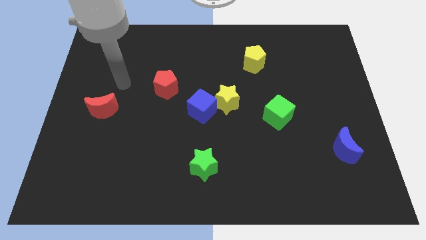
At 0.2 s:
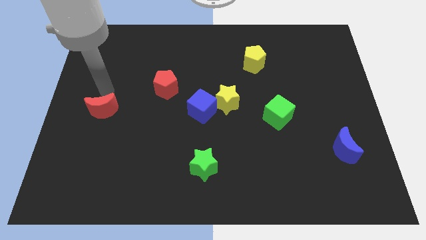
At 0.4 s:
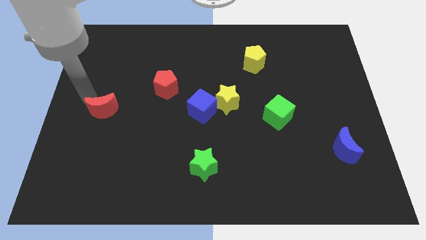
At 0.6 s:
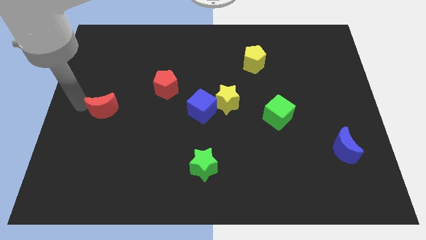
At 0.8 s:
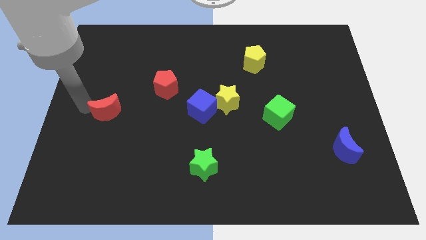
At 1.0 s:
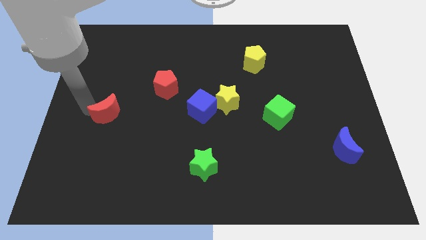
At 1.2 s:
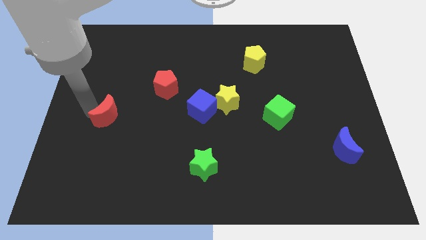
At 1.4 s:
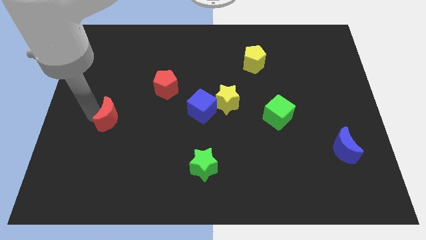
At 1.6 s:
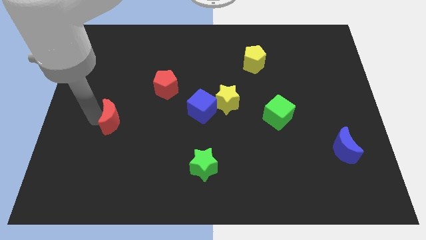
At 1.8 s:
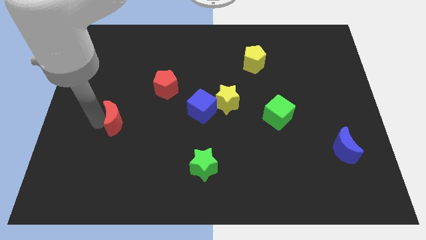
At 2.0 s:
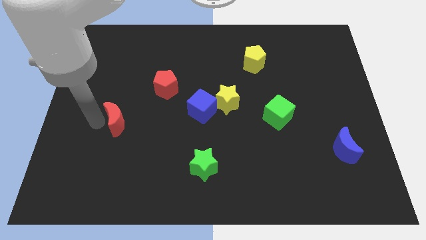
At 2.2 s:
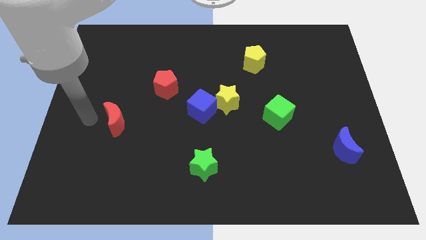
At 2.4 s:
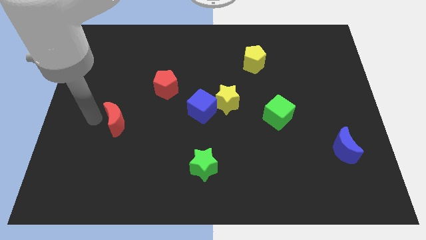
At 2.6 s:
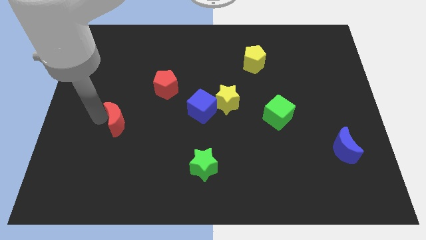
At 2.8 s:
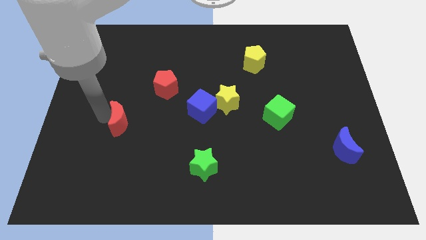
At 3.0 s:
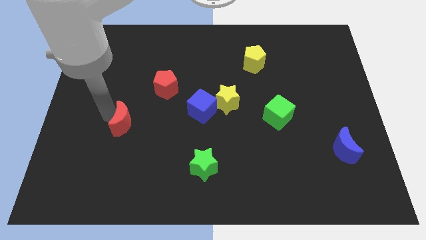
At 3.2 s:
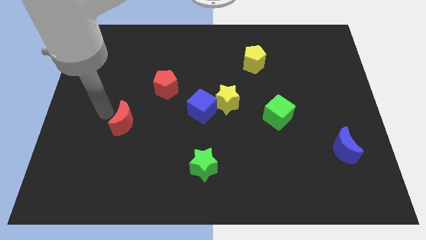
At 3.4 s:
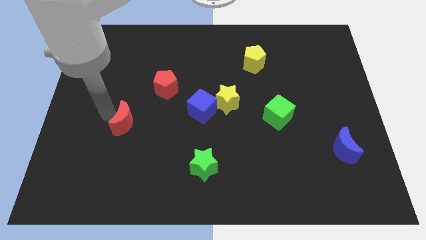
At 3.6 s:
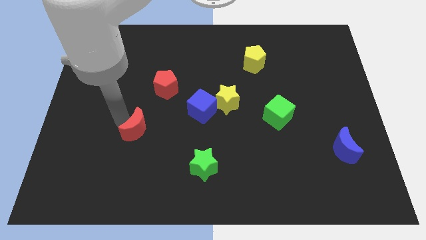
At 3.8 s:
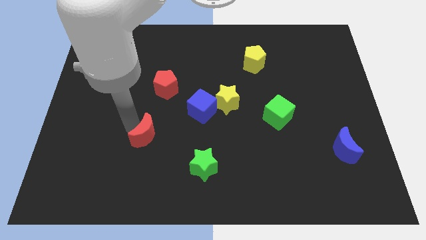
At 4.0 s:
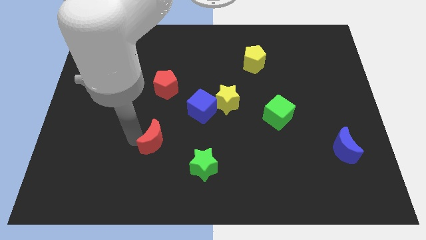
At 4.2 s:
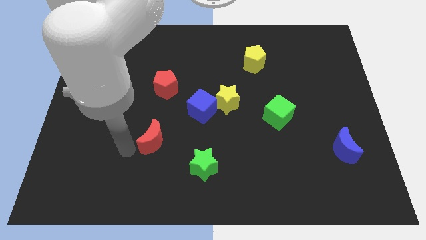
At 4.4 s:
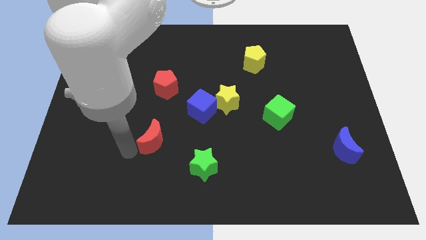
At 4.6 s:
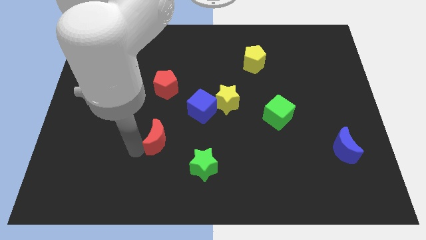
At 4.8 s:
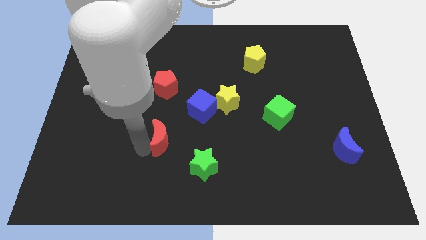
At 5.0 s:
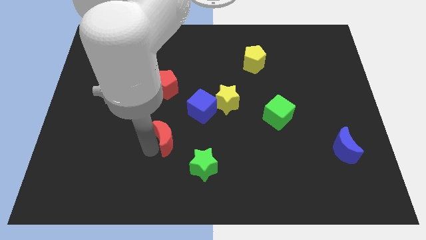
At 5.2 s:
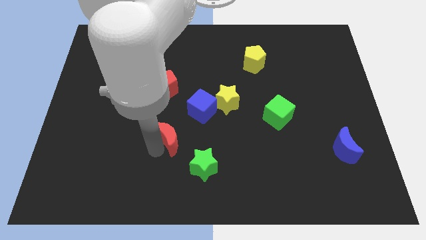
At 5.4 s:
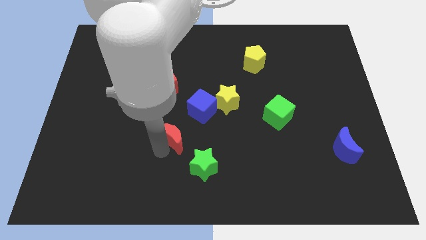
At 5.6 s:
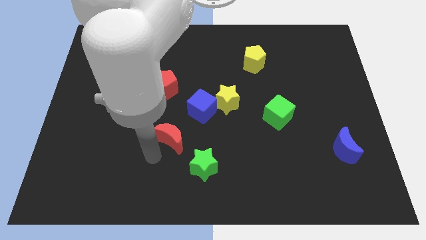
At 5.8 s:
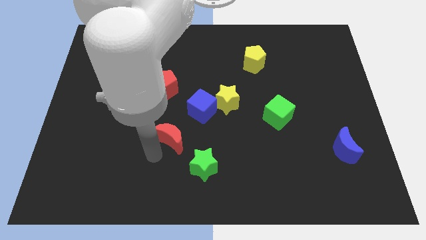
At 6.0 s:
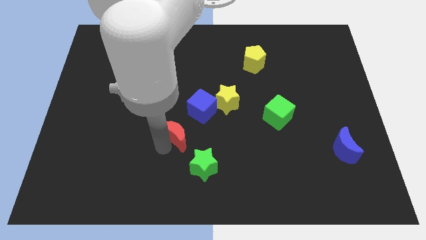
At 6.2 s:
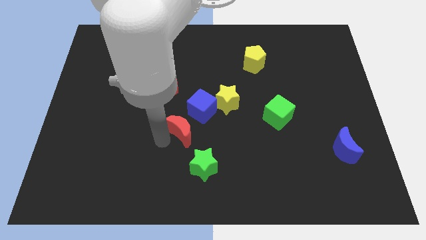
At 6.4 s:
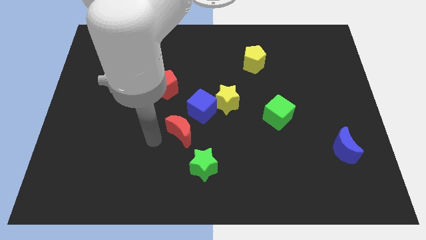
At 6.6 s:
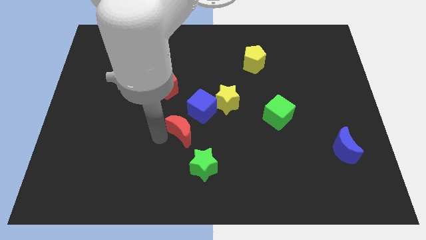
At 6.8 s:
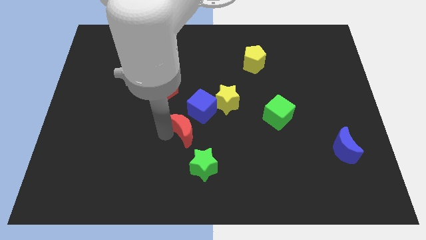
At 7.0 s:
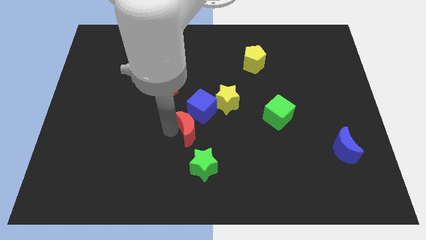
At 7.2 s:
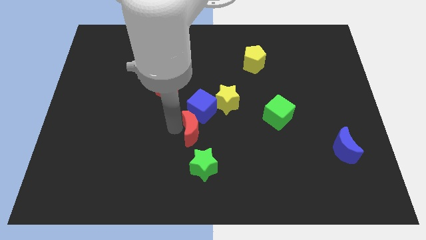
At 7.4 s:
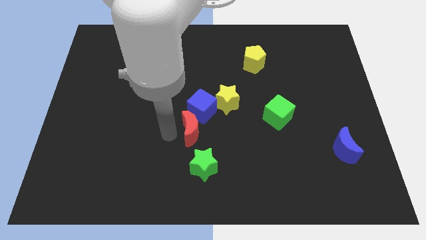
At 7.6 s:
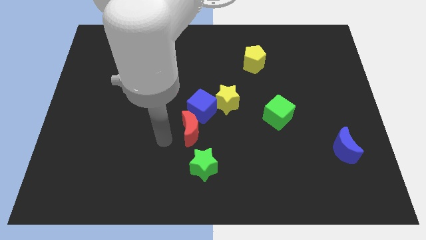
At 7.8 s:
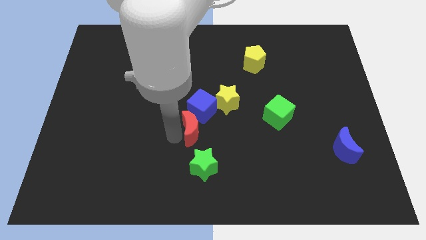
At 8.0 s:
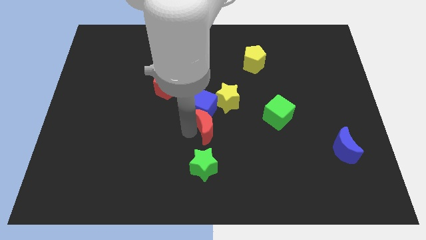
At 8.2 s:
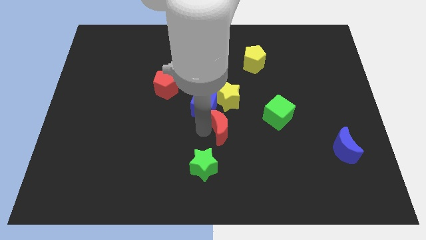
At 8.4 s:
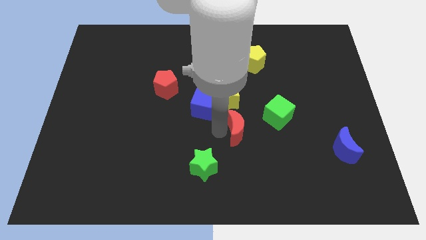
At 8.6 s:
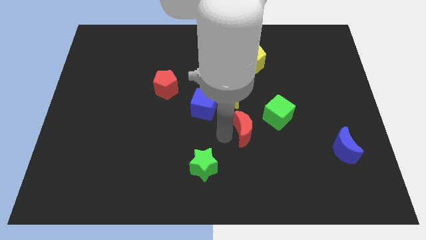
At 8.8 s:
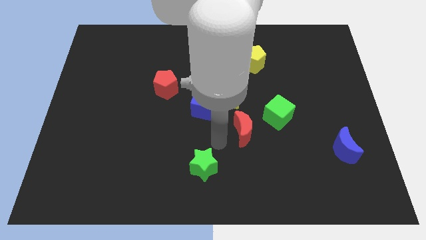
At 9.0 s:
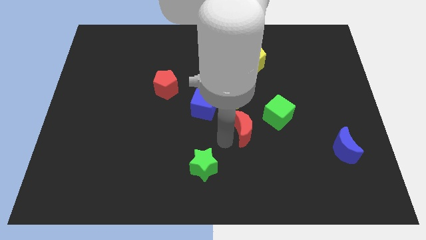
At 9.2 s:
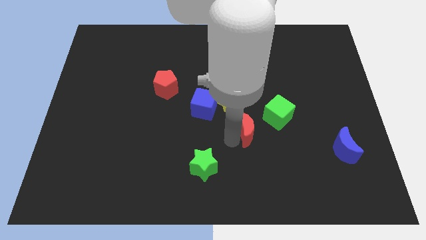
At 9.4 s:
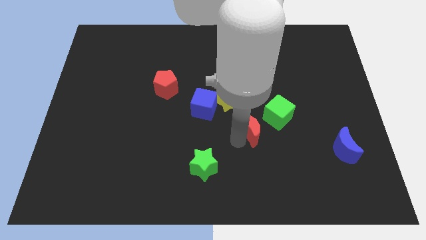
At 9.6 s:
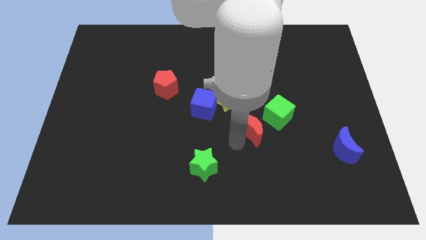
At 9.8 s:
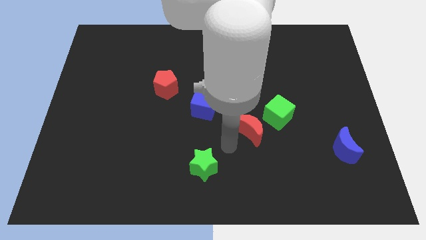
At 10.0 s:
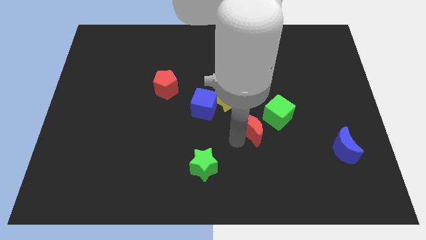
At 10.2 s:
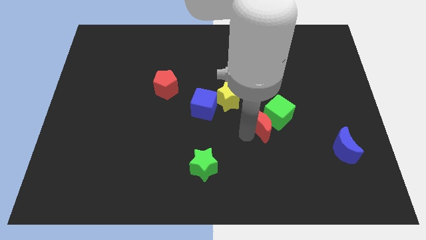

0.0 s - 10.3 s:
move the red moon to the green cube

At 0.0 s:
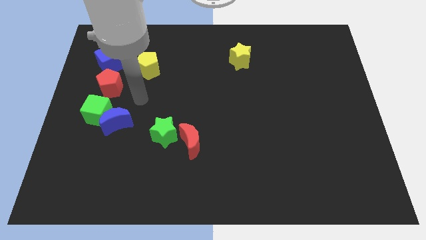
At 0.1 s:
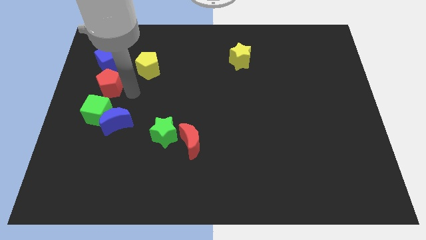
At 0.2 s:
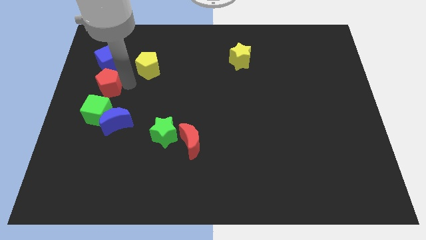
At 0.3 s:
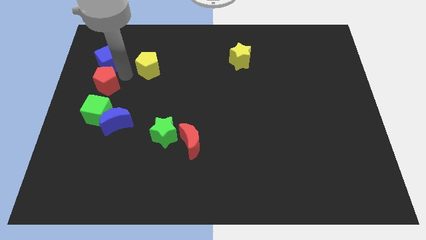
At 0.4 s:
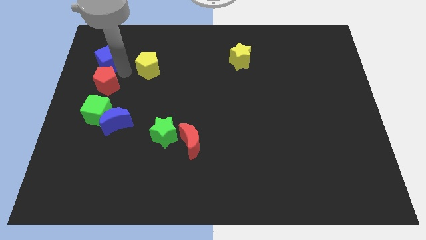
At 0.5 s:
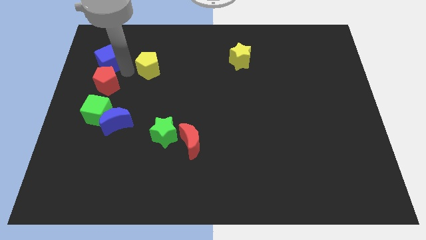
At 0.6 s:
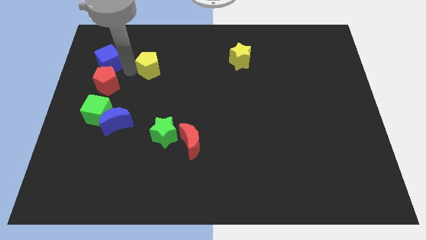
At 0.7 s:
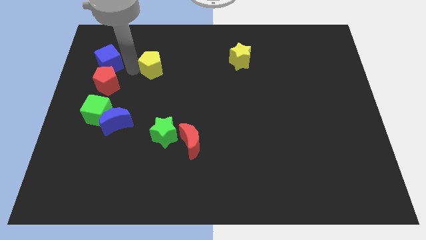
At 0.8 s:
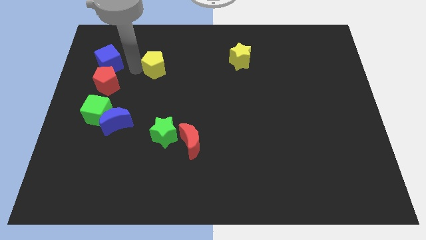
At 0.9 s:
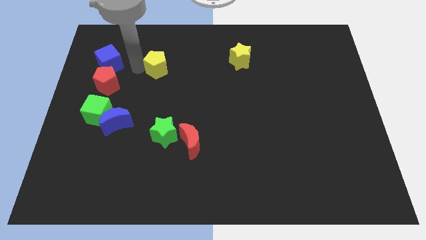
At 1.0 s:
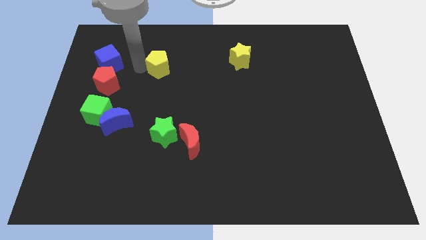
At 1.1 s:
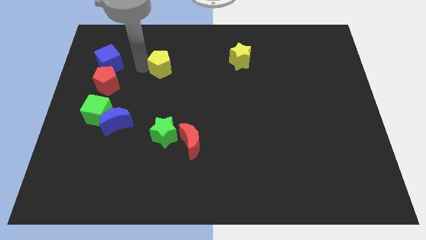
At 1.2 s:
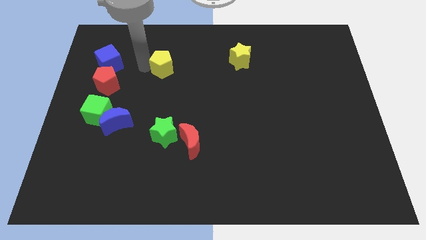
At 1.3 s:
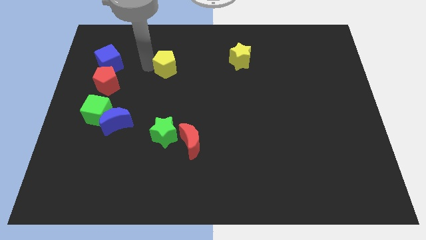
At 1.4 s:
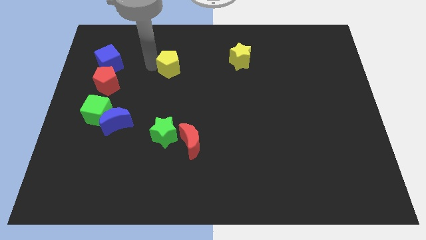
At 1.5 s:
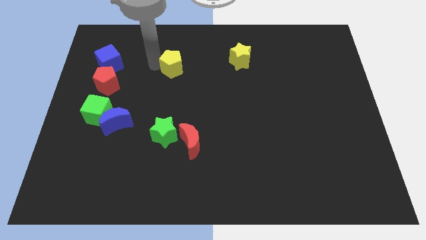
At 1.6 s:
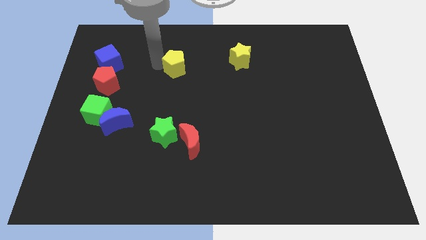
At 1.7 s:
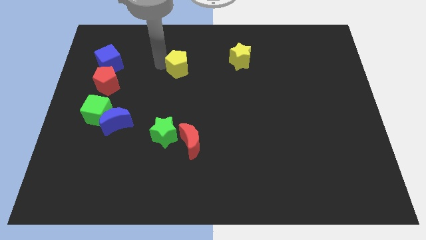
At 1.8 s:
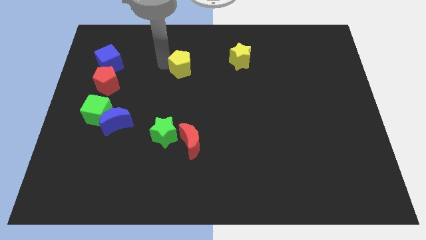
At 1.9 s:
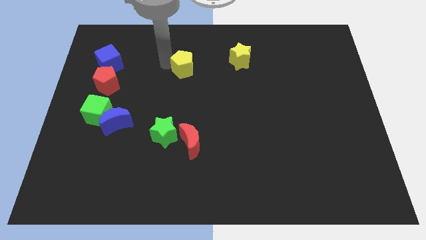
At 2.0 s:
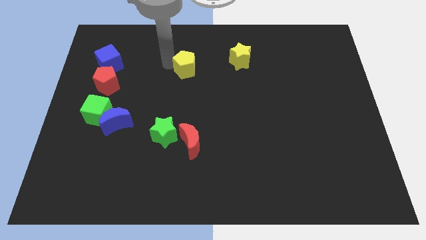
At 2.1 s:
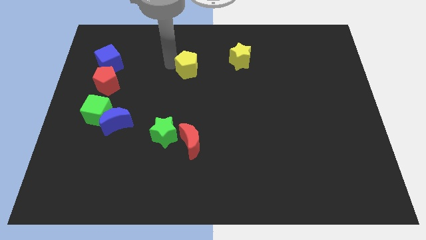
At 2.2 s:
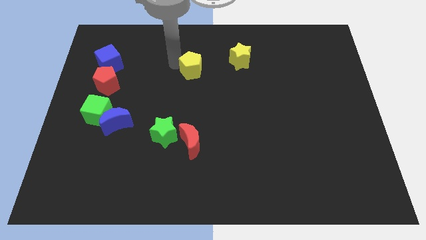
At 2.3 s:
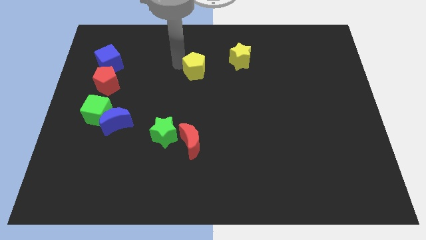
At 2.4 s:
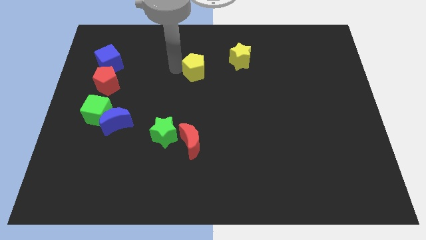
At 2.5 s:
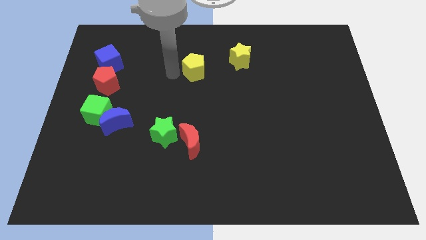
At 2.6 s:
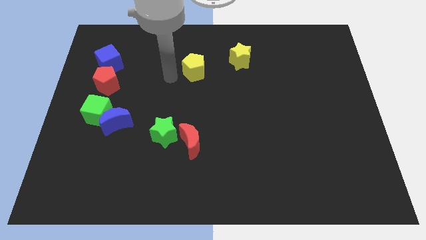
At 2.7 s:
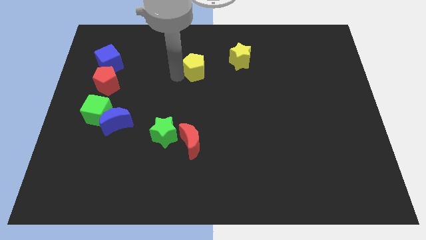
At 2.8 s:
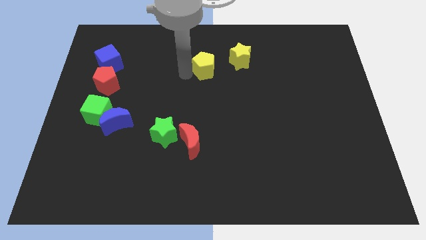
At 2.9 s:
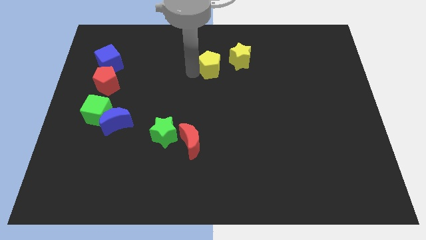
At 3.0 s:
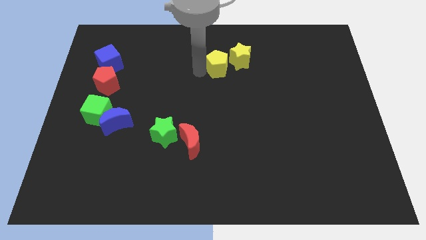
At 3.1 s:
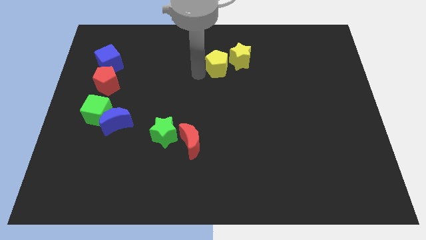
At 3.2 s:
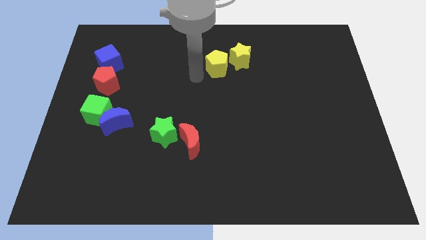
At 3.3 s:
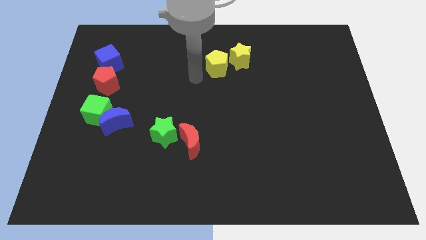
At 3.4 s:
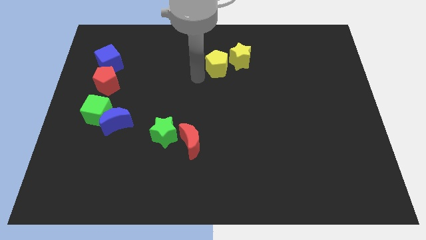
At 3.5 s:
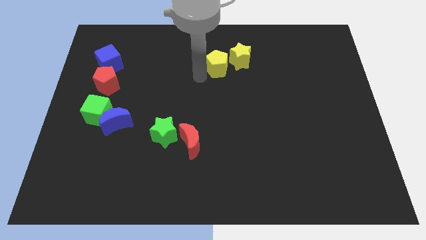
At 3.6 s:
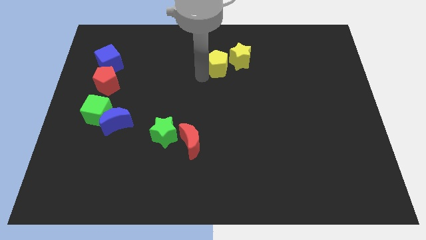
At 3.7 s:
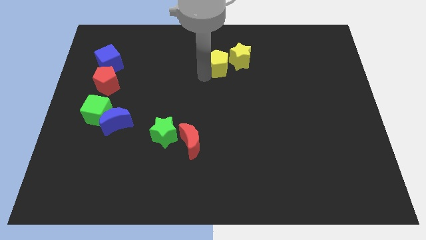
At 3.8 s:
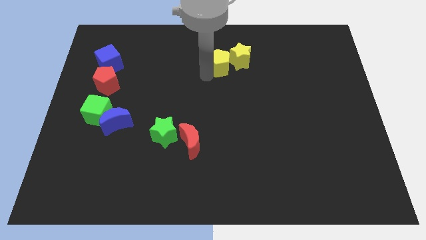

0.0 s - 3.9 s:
slide the yellow pentagon close to the yellow star
